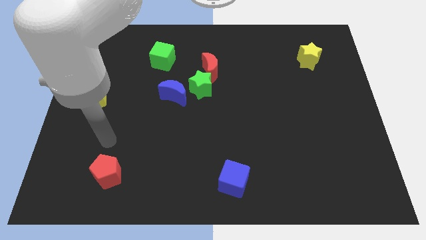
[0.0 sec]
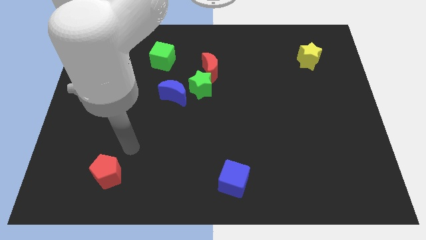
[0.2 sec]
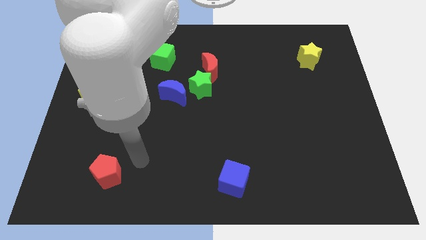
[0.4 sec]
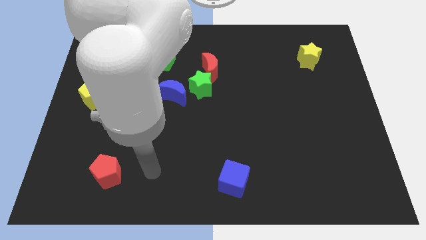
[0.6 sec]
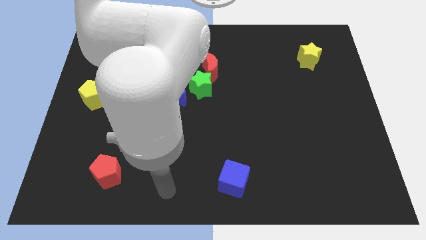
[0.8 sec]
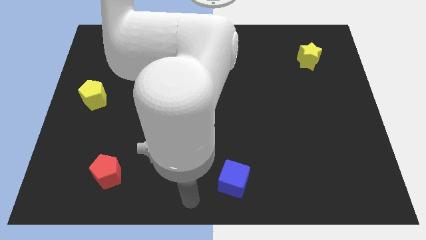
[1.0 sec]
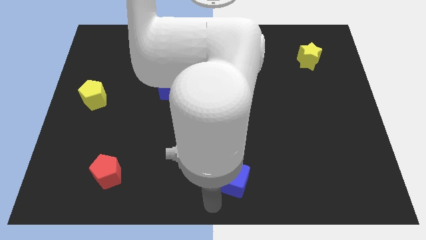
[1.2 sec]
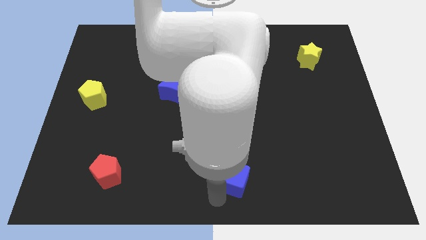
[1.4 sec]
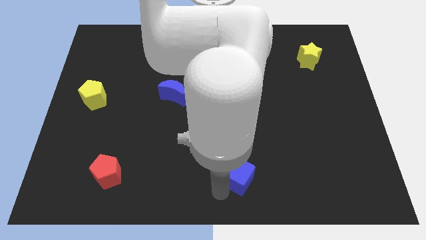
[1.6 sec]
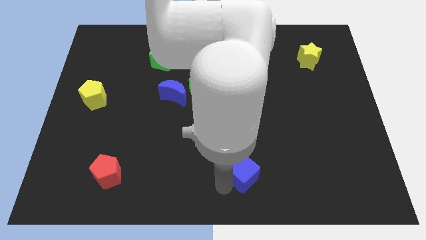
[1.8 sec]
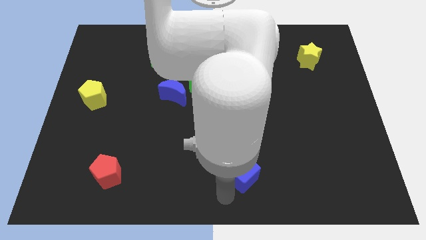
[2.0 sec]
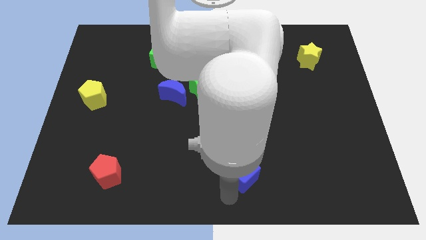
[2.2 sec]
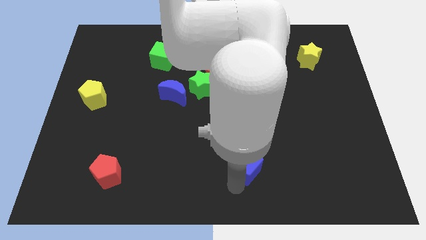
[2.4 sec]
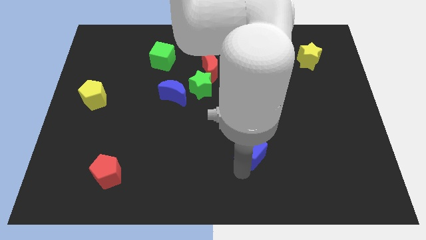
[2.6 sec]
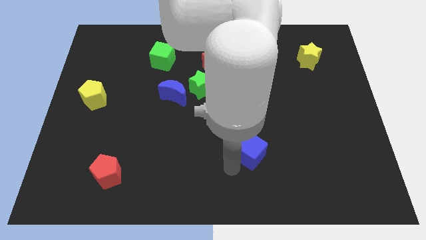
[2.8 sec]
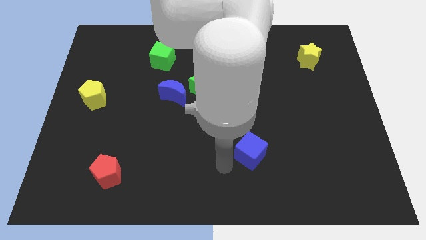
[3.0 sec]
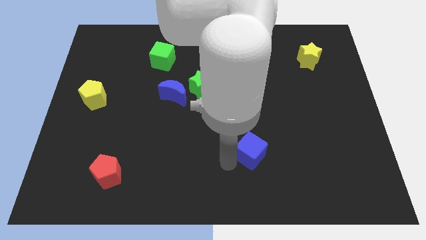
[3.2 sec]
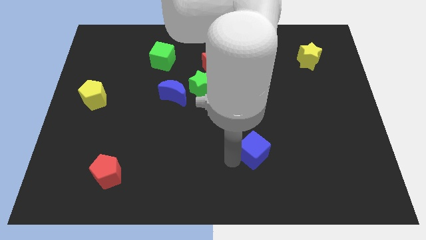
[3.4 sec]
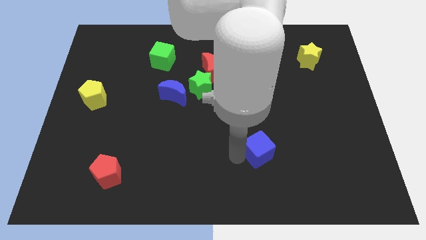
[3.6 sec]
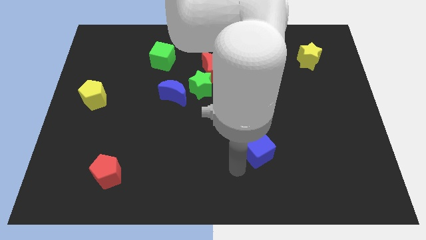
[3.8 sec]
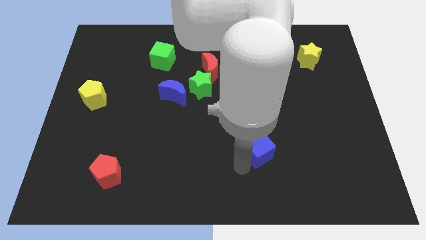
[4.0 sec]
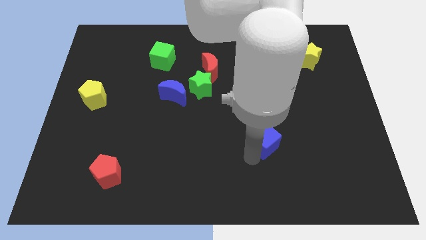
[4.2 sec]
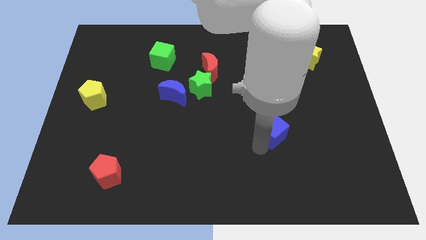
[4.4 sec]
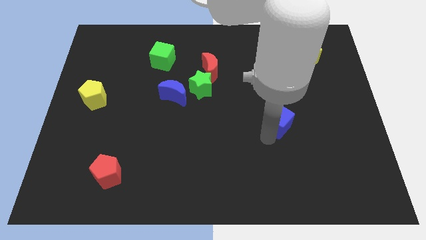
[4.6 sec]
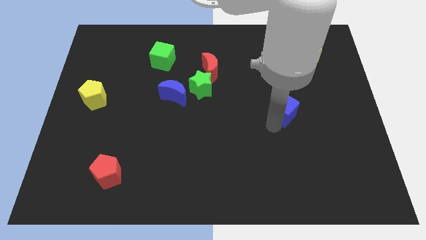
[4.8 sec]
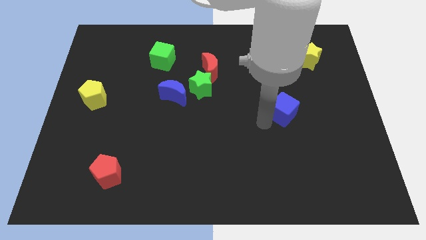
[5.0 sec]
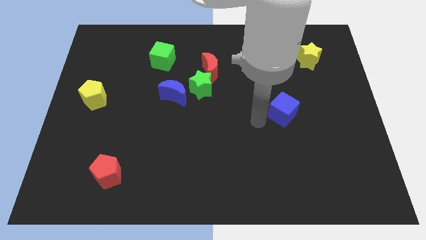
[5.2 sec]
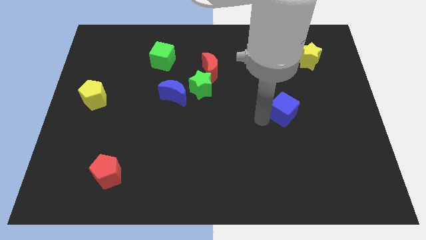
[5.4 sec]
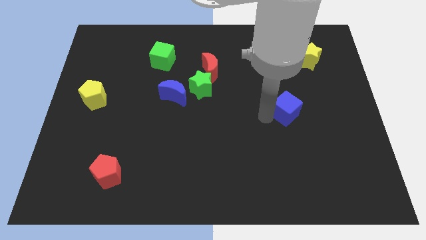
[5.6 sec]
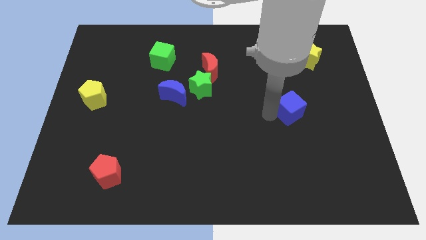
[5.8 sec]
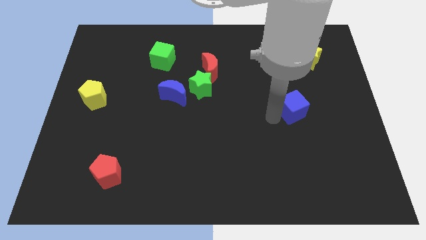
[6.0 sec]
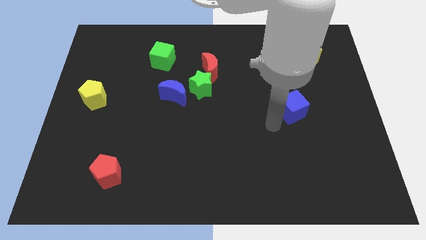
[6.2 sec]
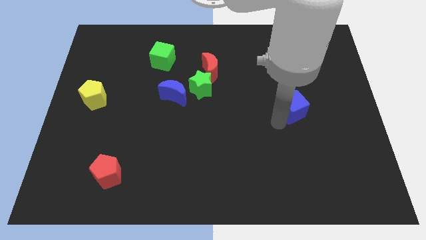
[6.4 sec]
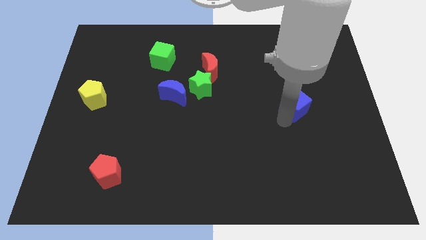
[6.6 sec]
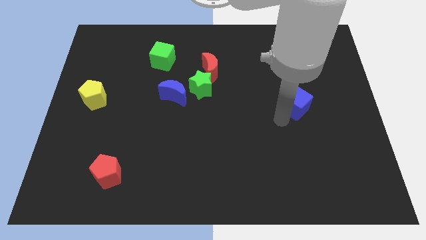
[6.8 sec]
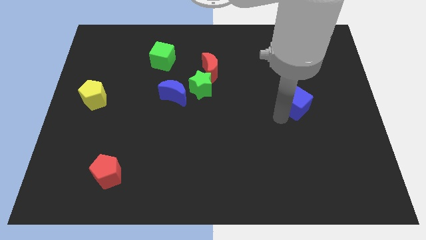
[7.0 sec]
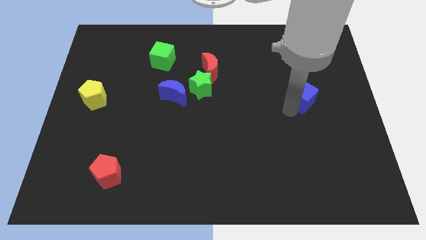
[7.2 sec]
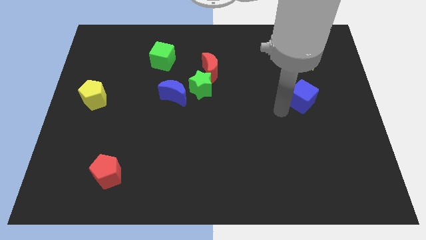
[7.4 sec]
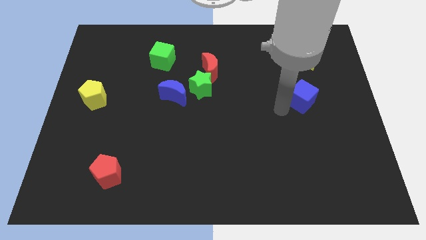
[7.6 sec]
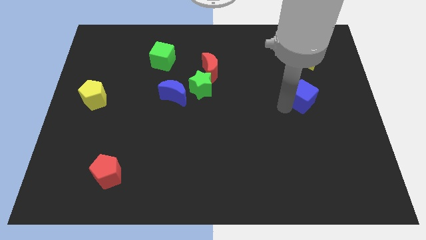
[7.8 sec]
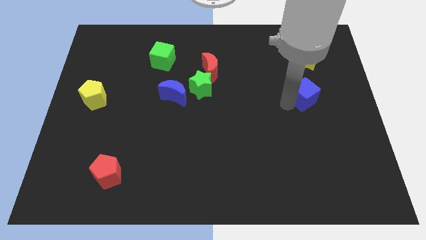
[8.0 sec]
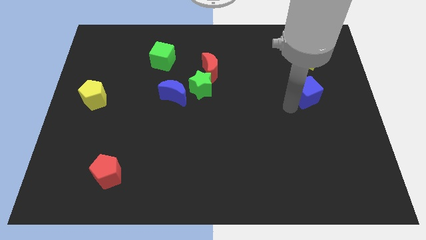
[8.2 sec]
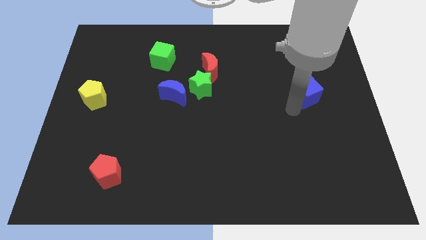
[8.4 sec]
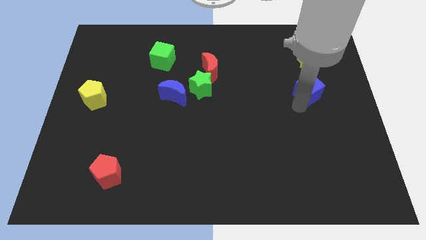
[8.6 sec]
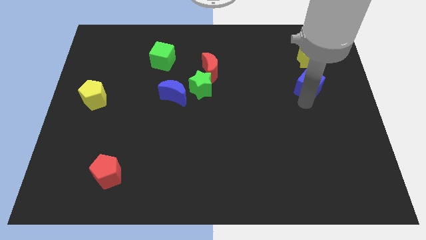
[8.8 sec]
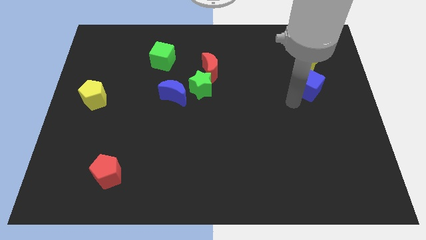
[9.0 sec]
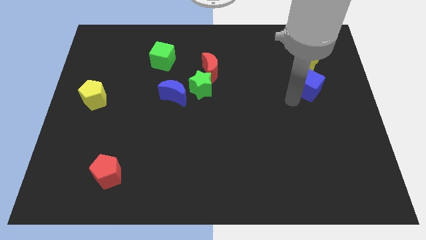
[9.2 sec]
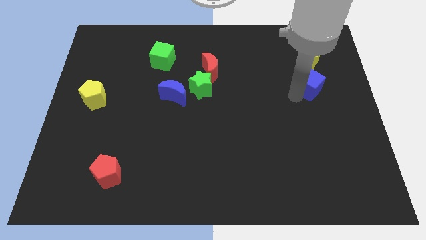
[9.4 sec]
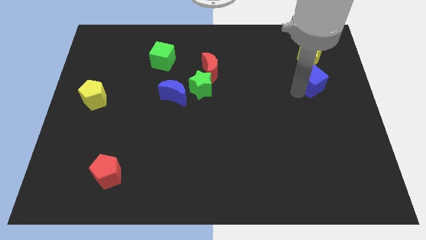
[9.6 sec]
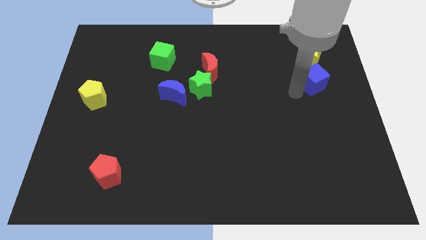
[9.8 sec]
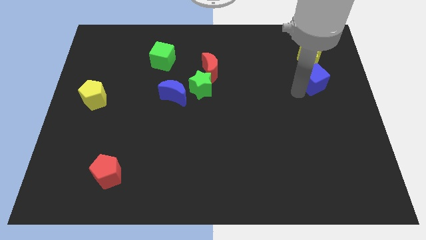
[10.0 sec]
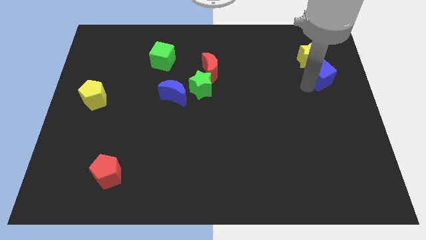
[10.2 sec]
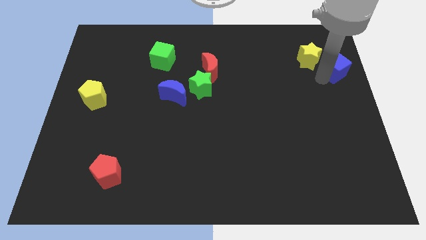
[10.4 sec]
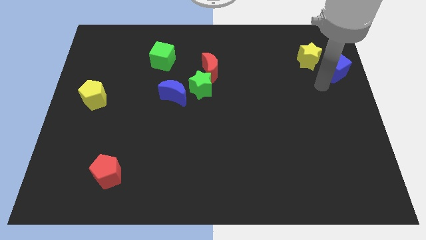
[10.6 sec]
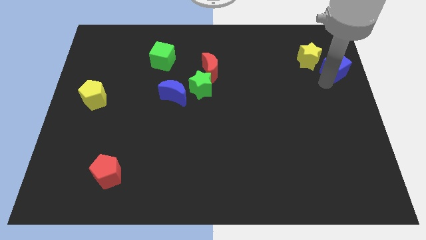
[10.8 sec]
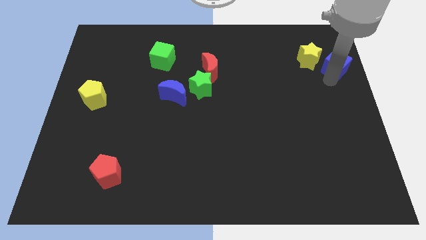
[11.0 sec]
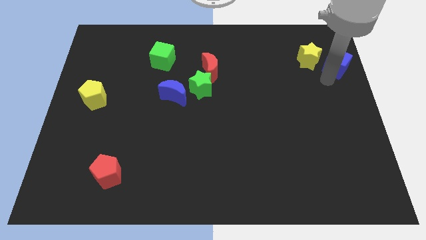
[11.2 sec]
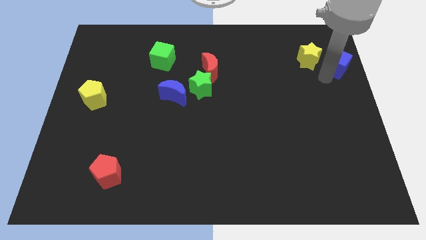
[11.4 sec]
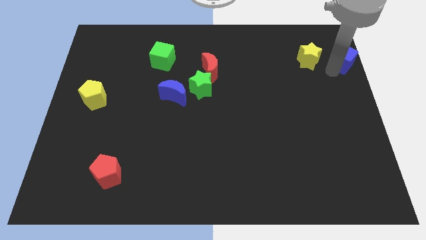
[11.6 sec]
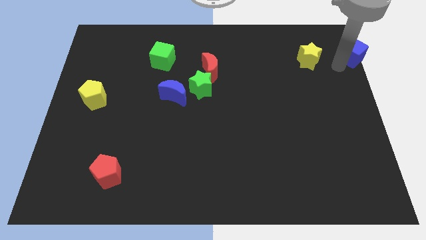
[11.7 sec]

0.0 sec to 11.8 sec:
move the blue cube to the upper right corner

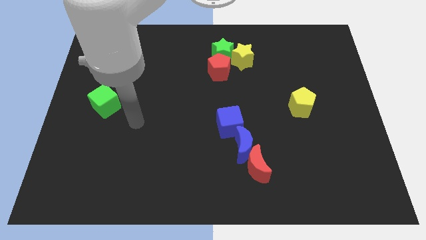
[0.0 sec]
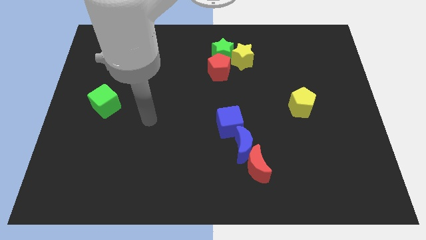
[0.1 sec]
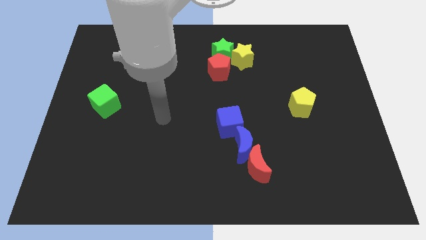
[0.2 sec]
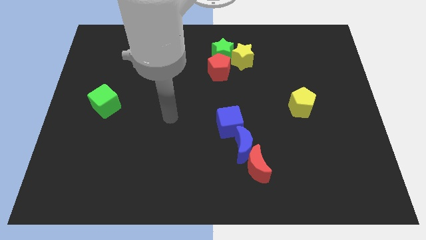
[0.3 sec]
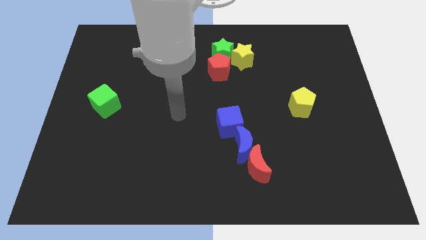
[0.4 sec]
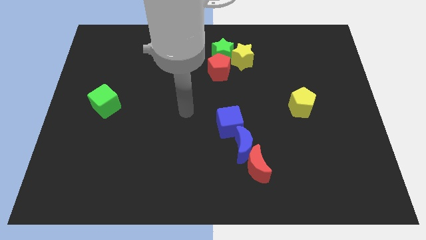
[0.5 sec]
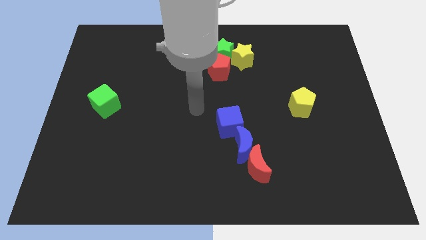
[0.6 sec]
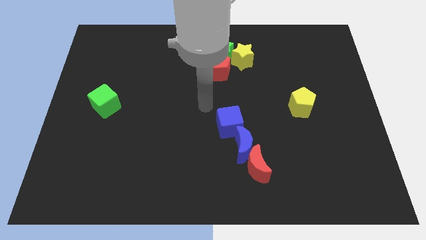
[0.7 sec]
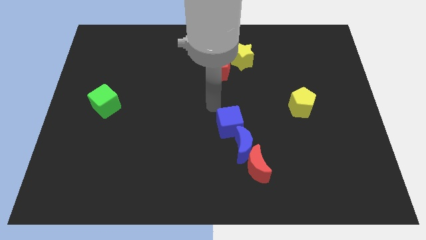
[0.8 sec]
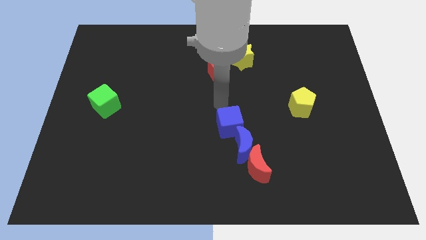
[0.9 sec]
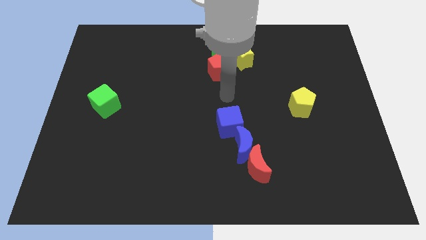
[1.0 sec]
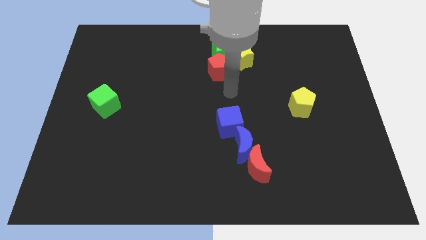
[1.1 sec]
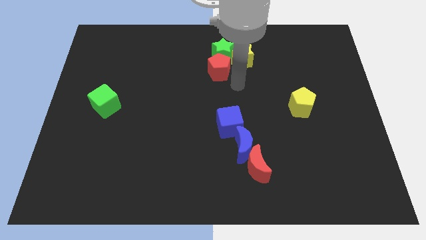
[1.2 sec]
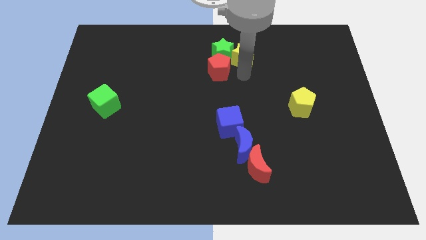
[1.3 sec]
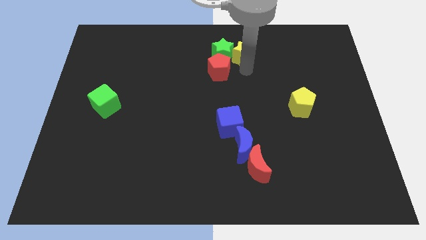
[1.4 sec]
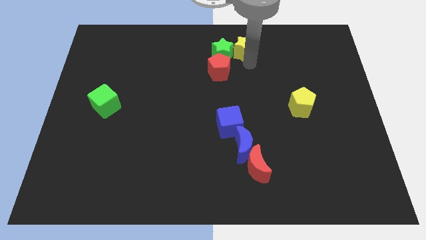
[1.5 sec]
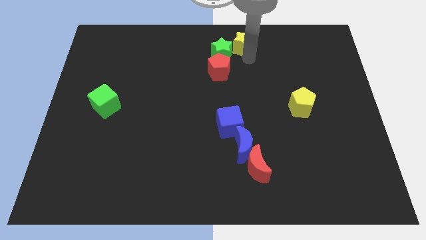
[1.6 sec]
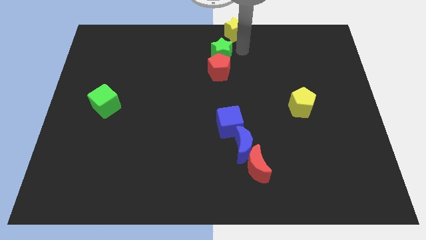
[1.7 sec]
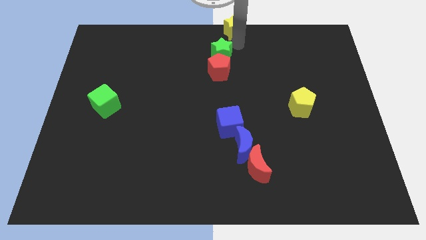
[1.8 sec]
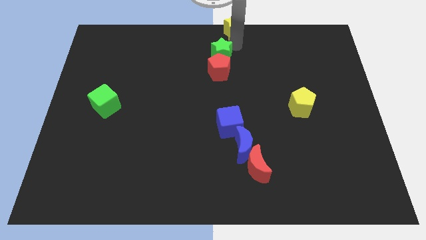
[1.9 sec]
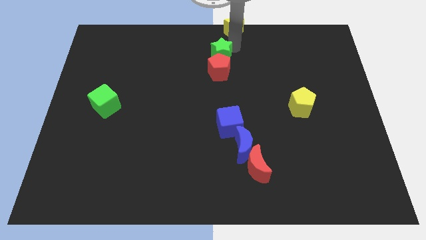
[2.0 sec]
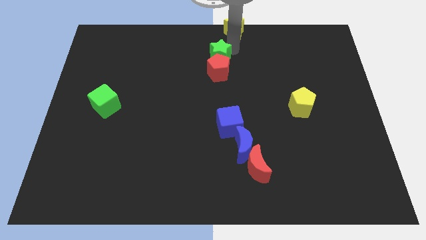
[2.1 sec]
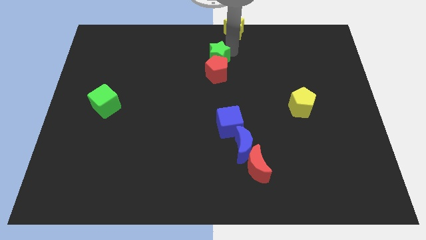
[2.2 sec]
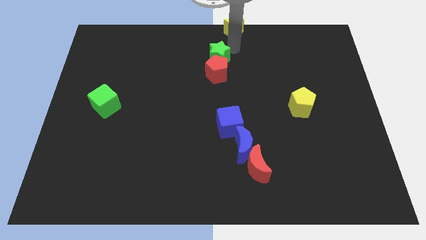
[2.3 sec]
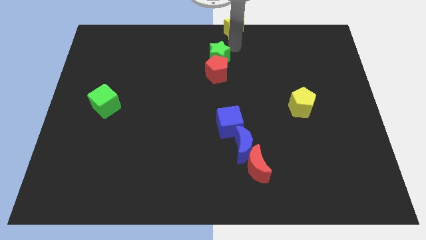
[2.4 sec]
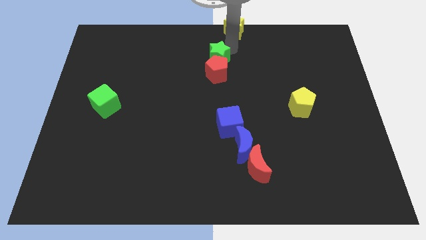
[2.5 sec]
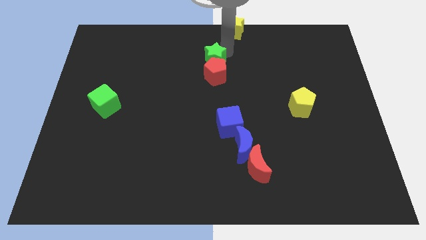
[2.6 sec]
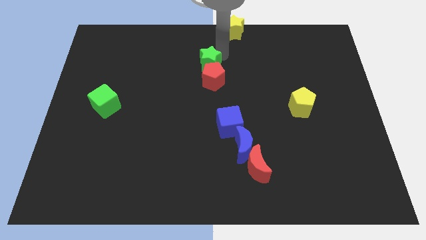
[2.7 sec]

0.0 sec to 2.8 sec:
move the green star to the center of the board
